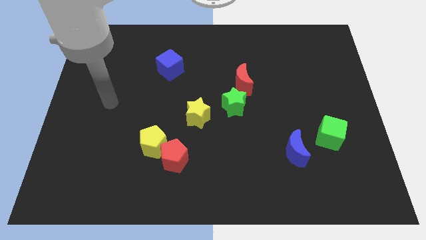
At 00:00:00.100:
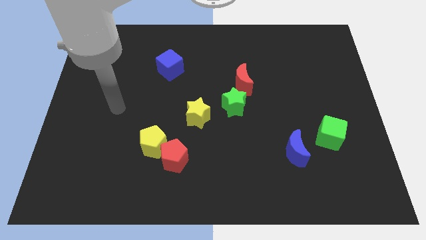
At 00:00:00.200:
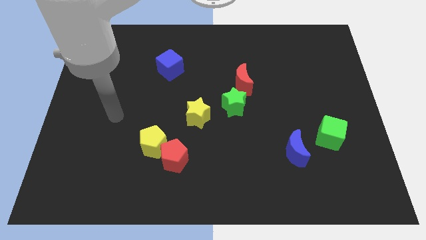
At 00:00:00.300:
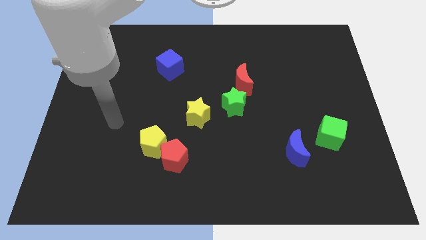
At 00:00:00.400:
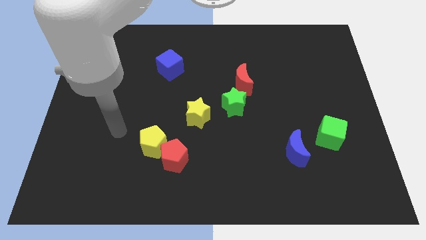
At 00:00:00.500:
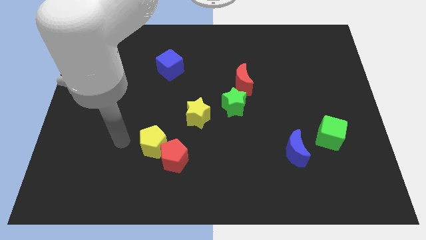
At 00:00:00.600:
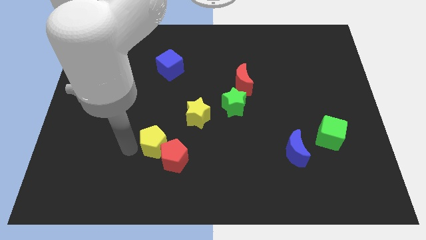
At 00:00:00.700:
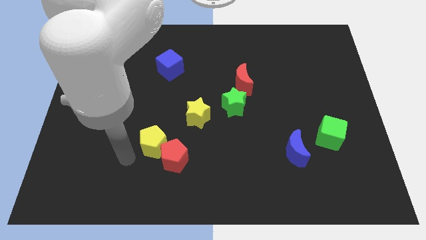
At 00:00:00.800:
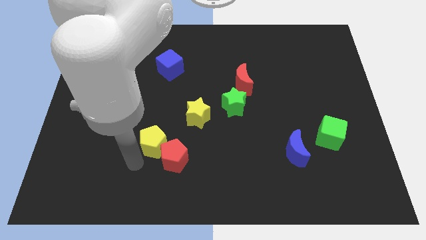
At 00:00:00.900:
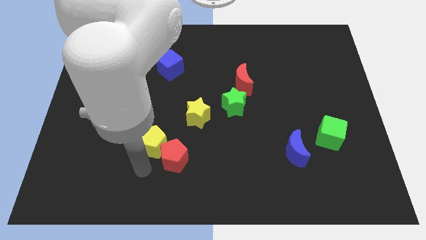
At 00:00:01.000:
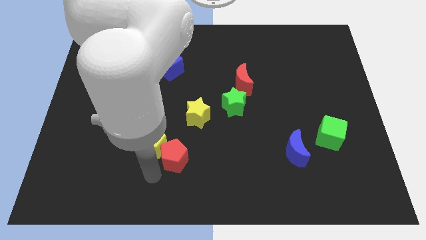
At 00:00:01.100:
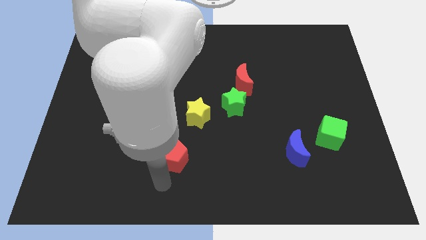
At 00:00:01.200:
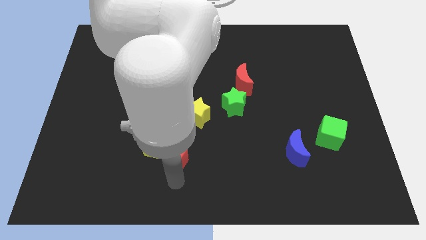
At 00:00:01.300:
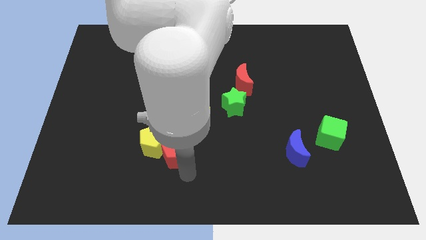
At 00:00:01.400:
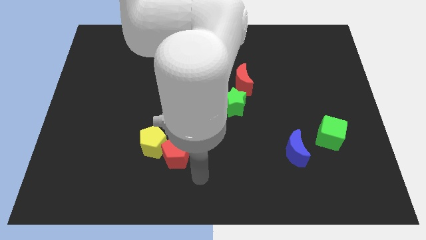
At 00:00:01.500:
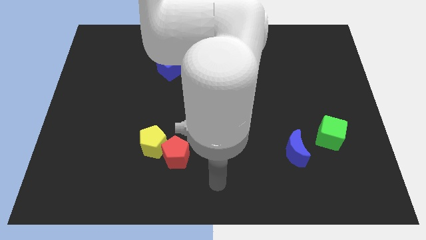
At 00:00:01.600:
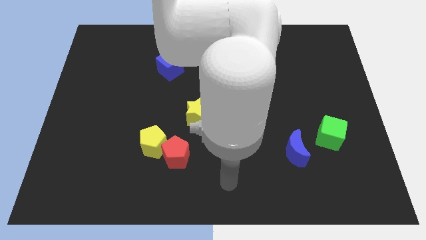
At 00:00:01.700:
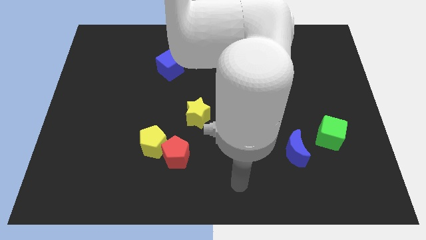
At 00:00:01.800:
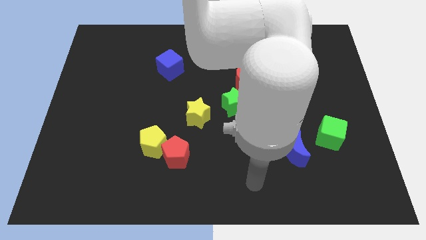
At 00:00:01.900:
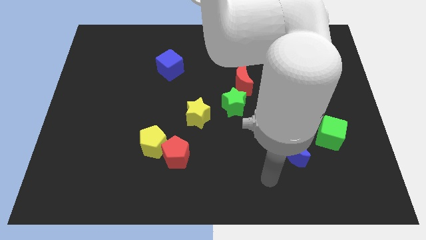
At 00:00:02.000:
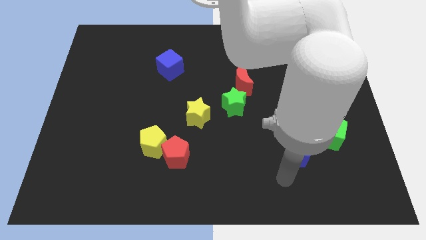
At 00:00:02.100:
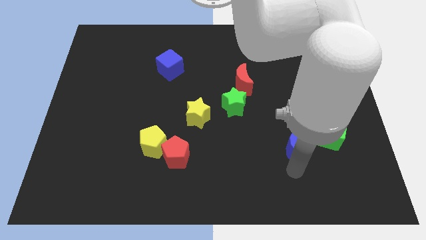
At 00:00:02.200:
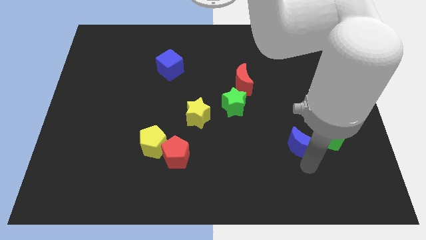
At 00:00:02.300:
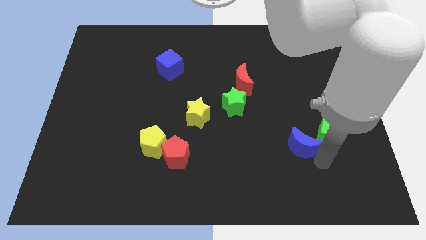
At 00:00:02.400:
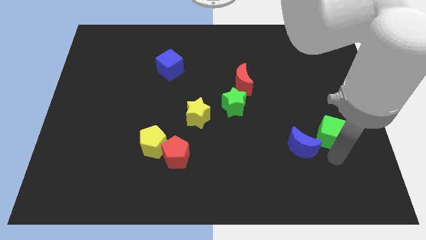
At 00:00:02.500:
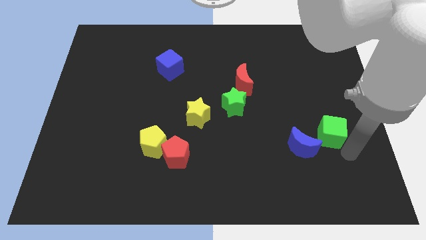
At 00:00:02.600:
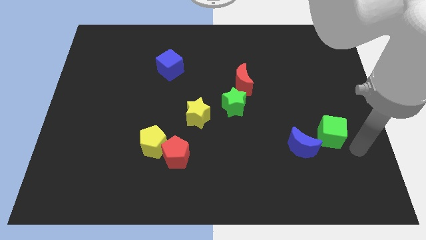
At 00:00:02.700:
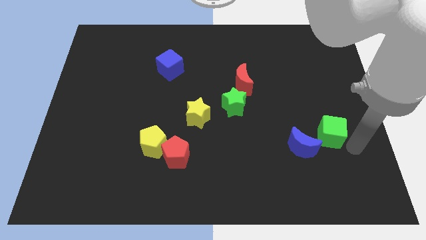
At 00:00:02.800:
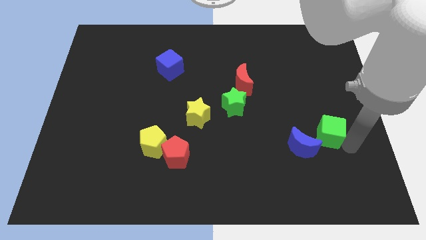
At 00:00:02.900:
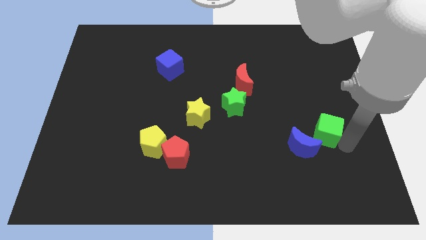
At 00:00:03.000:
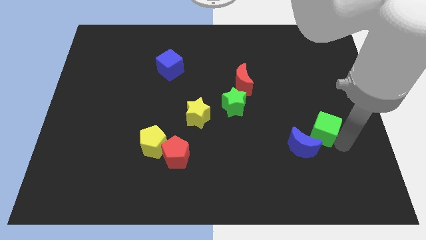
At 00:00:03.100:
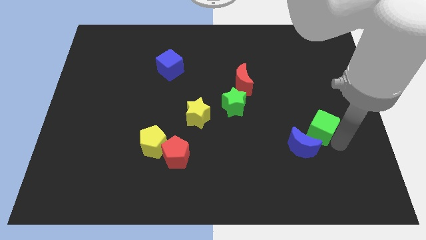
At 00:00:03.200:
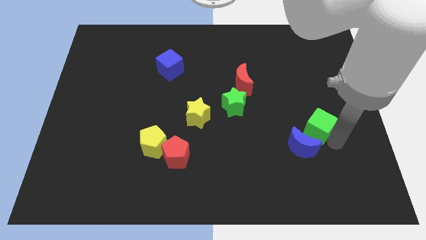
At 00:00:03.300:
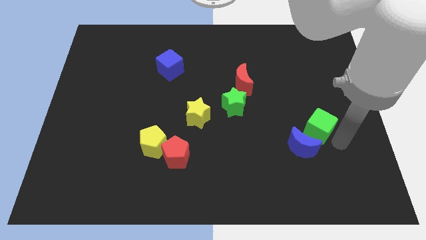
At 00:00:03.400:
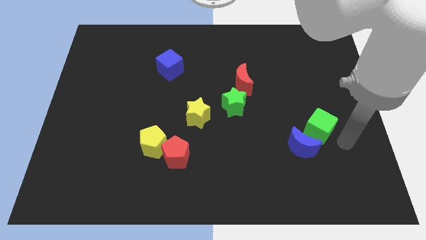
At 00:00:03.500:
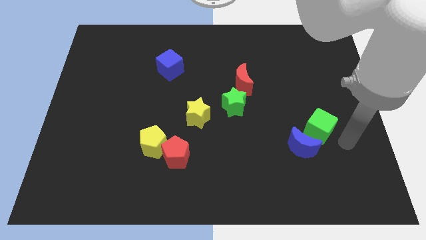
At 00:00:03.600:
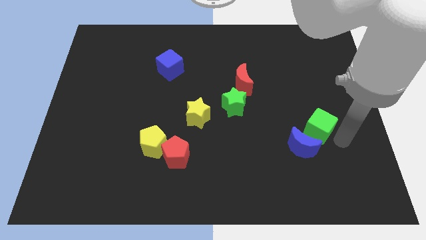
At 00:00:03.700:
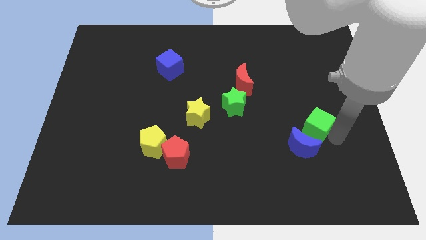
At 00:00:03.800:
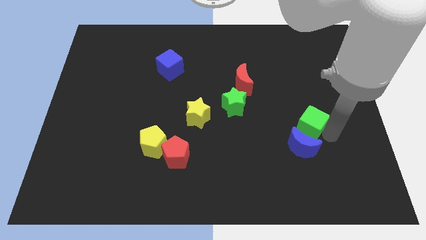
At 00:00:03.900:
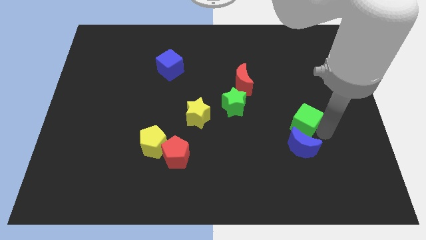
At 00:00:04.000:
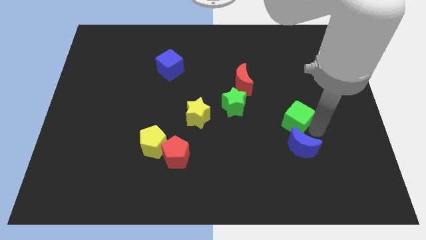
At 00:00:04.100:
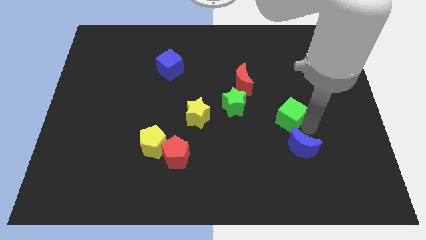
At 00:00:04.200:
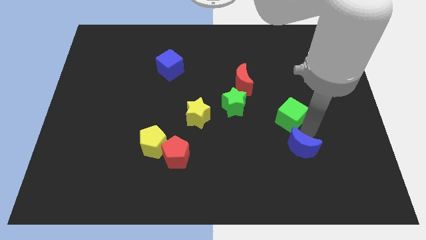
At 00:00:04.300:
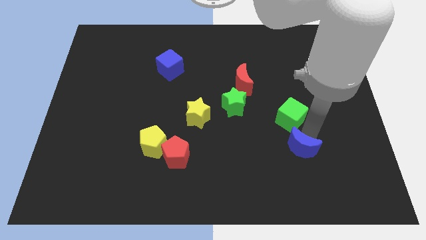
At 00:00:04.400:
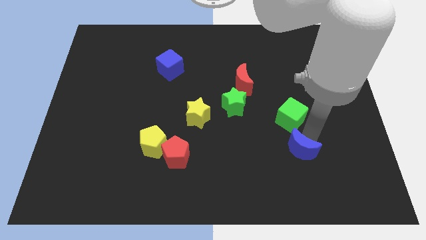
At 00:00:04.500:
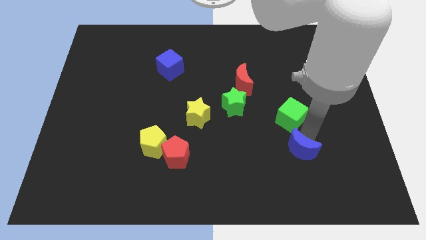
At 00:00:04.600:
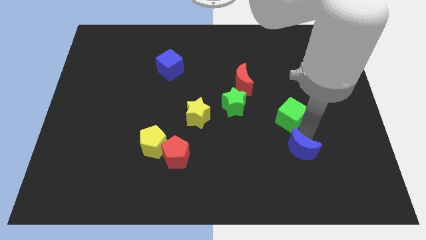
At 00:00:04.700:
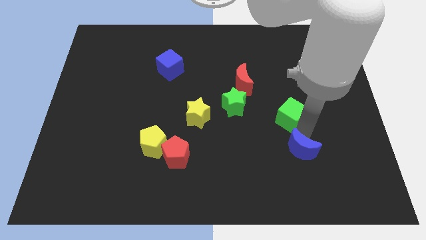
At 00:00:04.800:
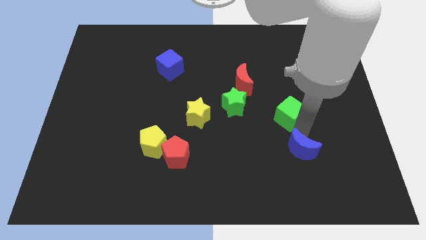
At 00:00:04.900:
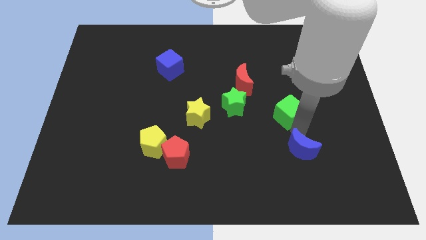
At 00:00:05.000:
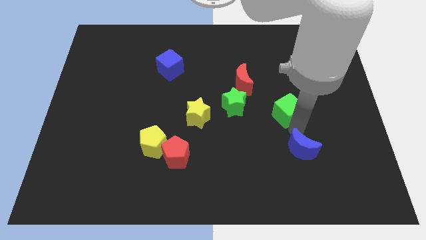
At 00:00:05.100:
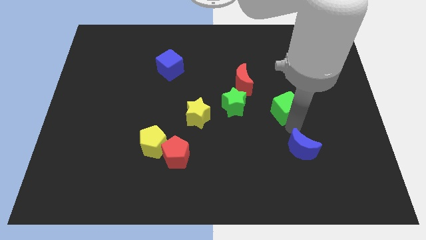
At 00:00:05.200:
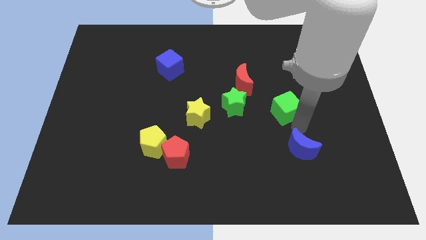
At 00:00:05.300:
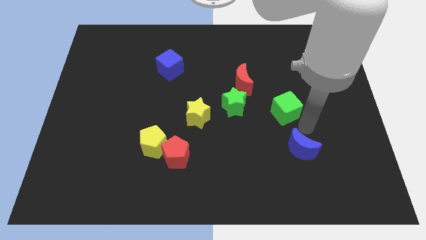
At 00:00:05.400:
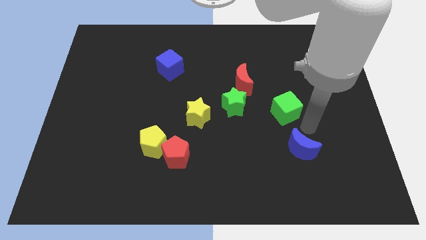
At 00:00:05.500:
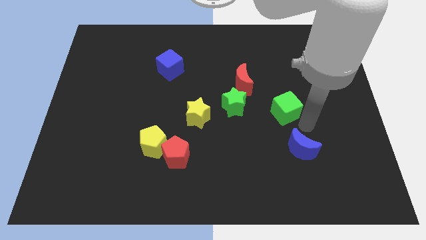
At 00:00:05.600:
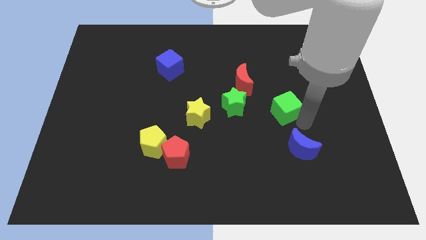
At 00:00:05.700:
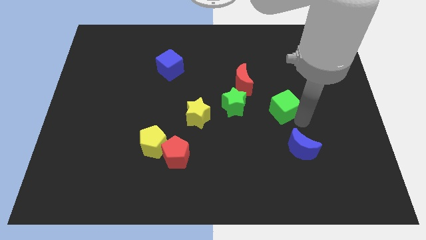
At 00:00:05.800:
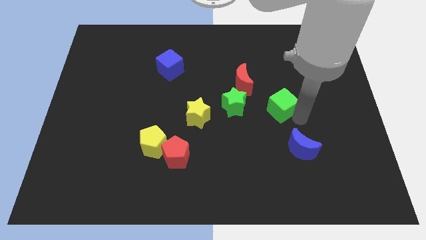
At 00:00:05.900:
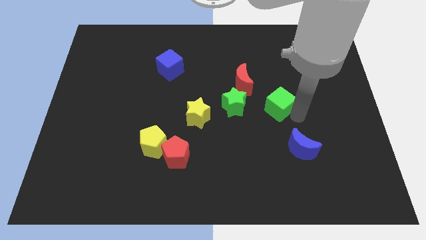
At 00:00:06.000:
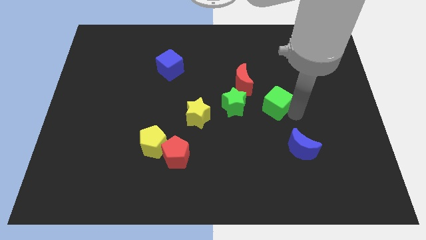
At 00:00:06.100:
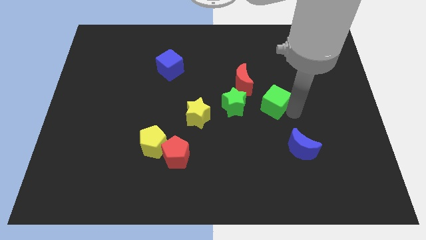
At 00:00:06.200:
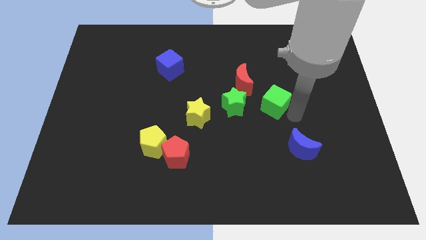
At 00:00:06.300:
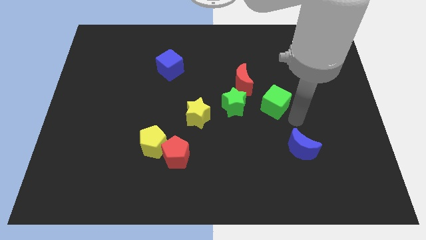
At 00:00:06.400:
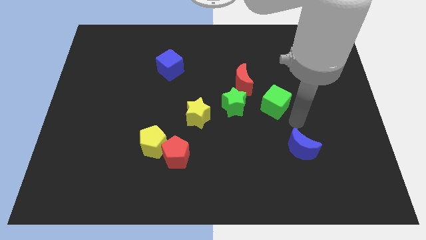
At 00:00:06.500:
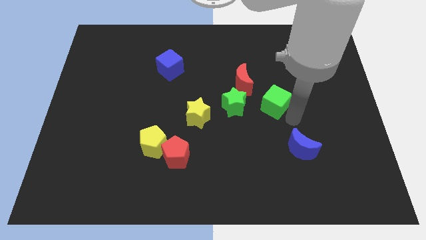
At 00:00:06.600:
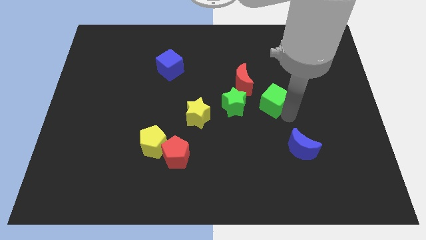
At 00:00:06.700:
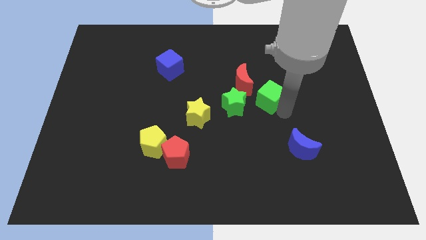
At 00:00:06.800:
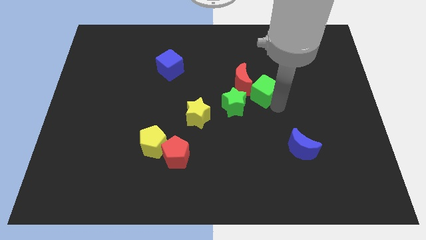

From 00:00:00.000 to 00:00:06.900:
push the green cube next to the red moon
